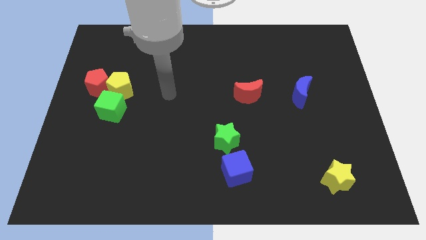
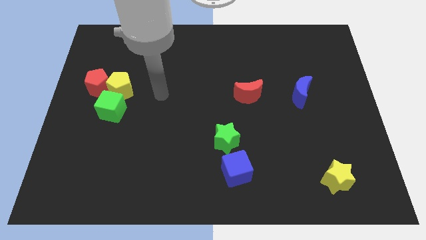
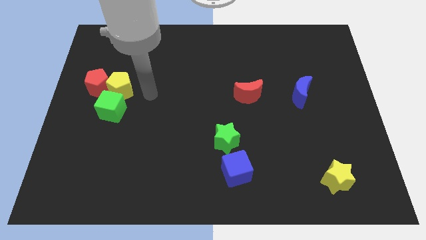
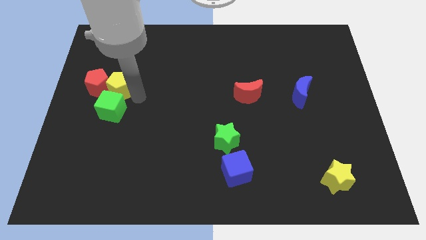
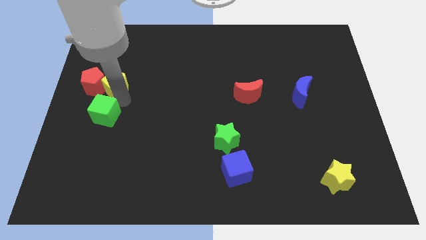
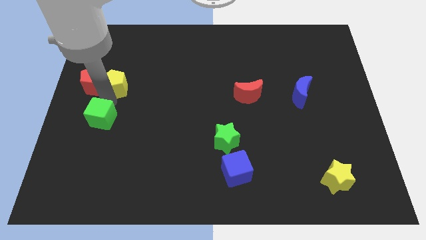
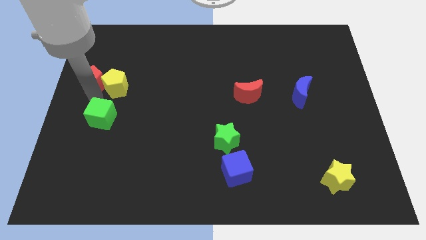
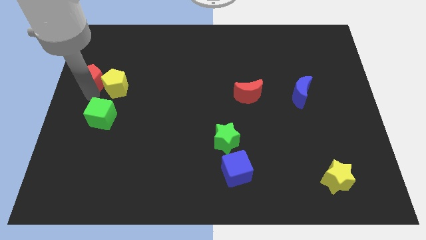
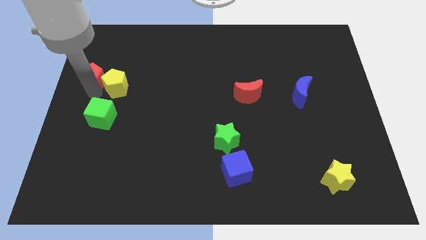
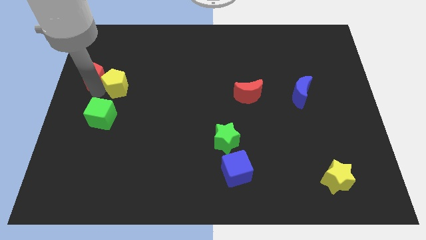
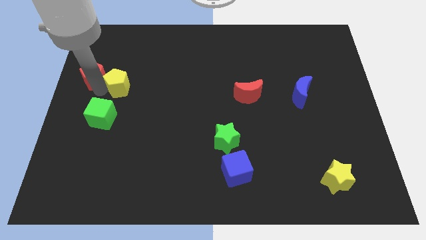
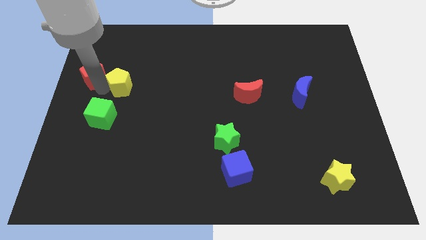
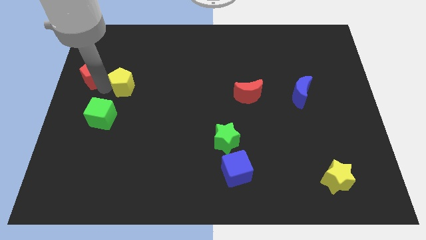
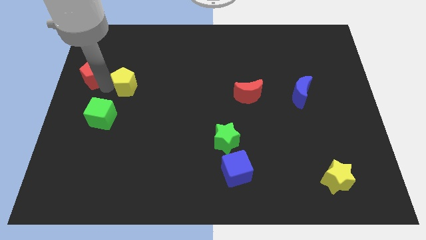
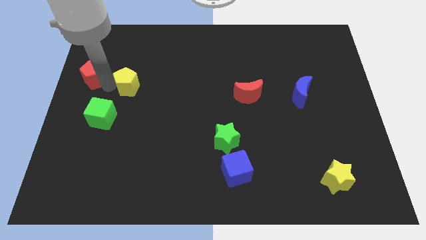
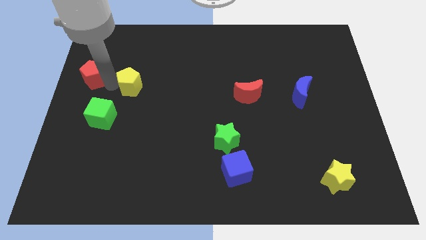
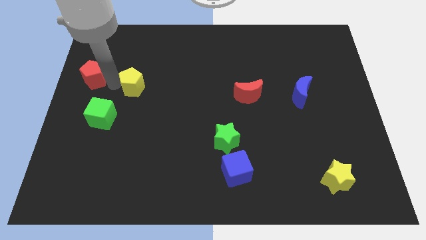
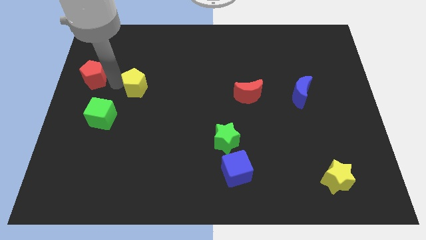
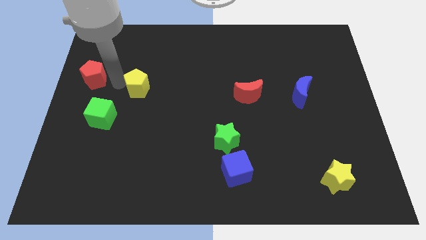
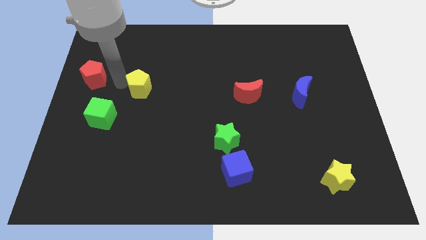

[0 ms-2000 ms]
pull the yellow pentagon apart from the red pentagon and green cube

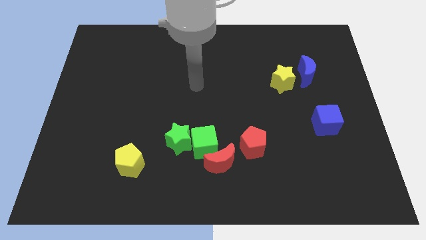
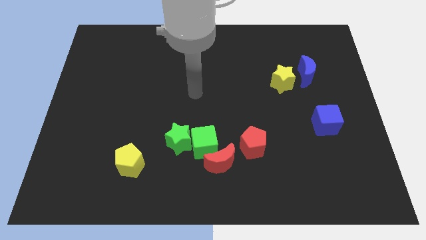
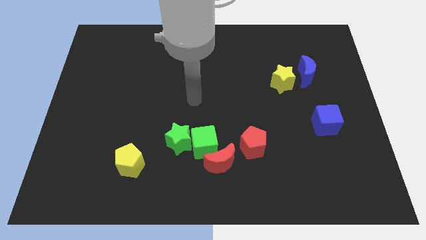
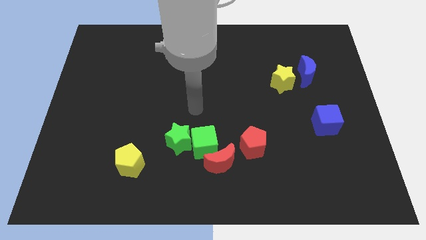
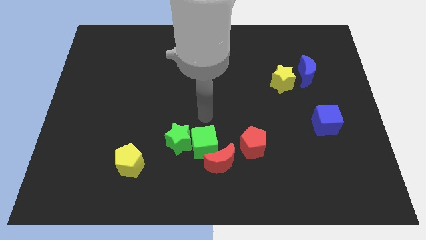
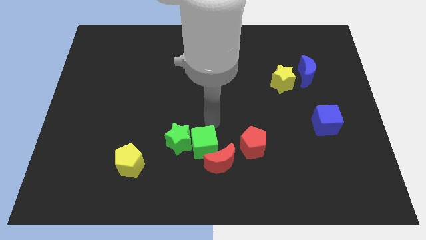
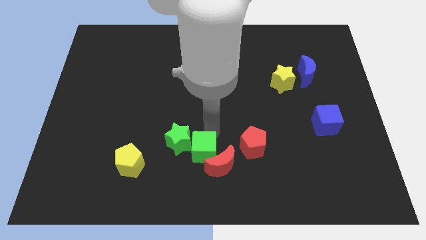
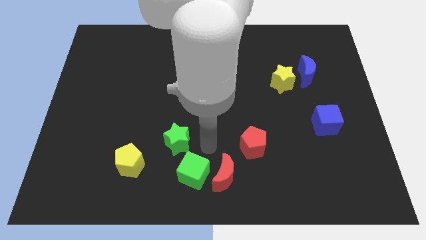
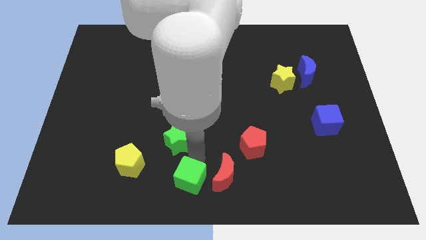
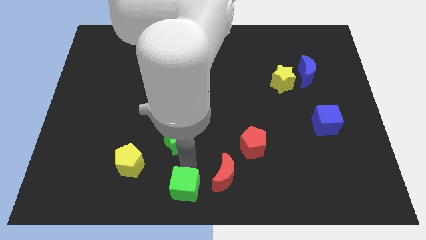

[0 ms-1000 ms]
separate the green star from the green cube

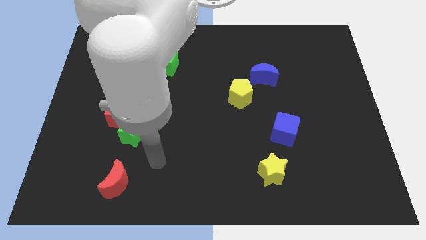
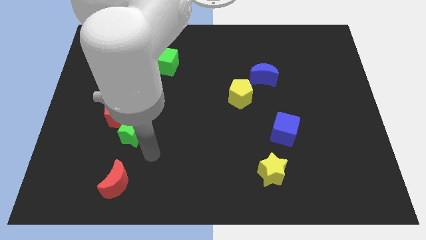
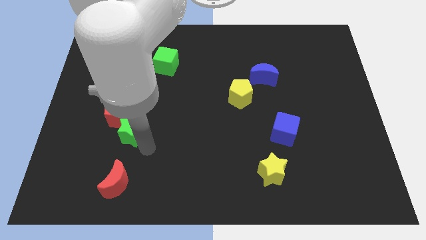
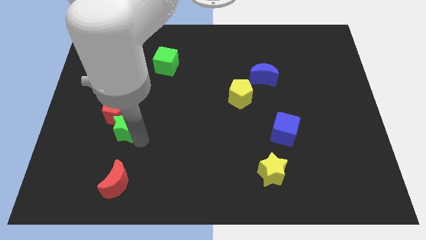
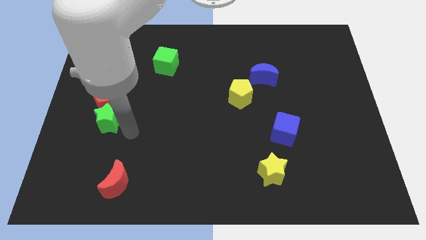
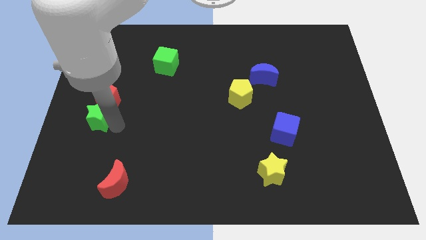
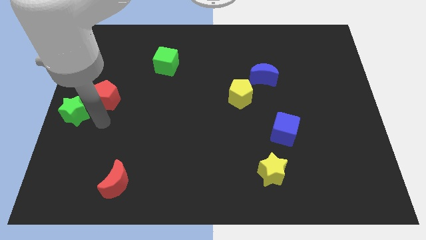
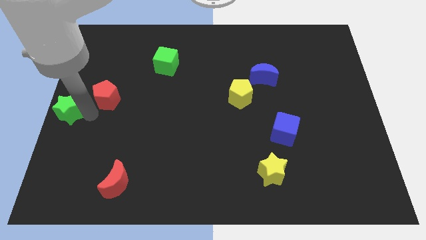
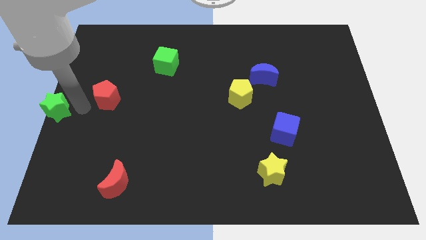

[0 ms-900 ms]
pull the red pentagon apart from the green star

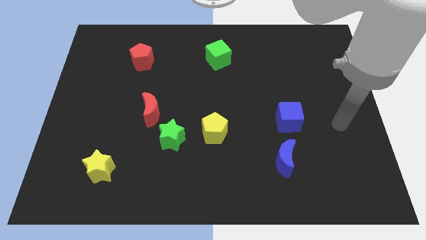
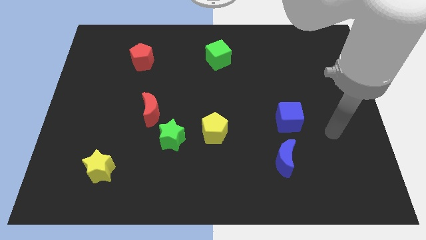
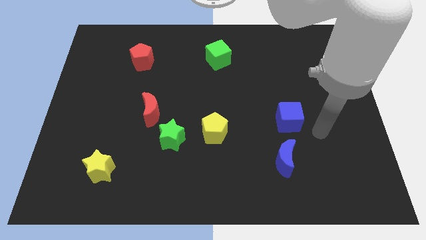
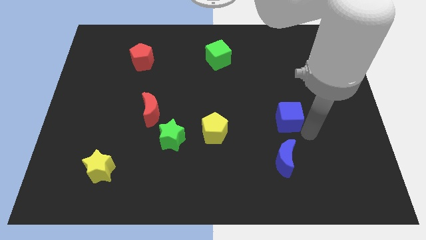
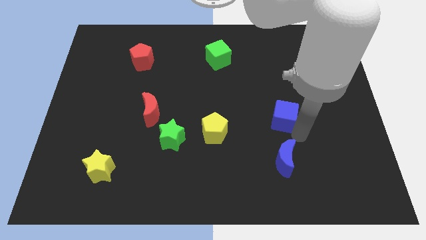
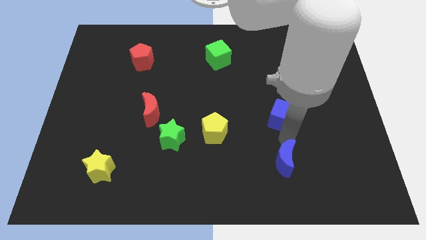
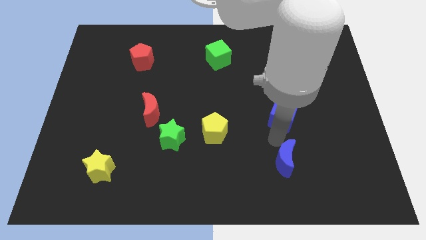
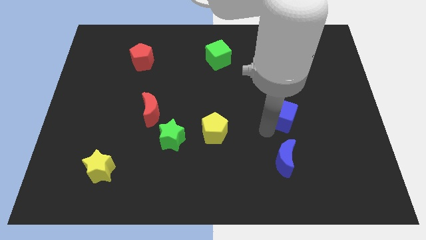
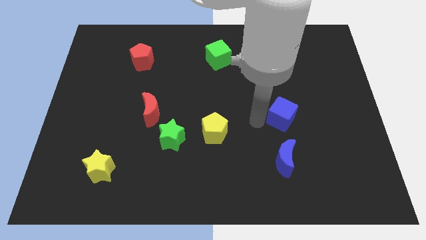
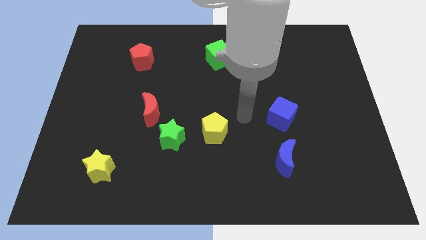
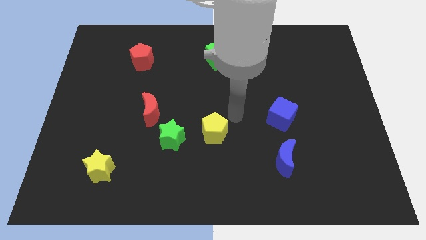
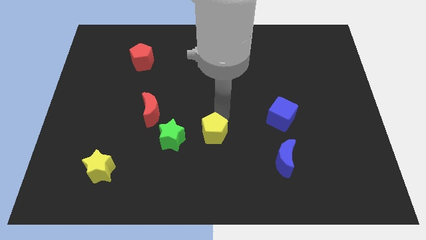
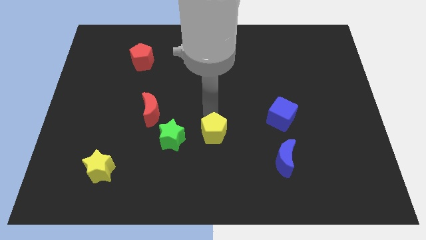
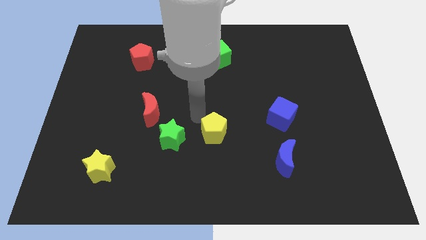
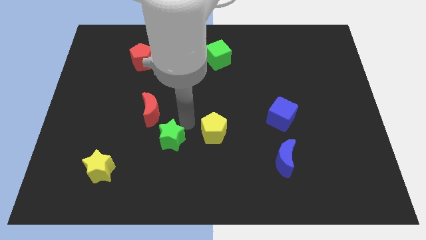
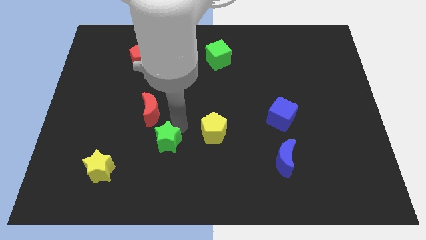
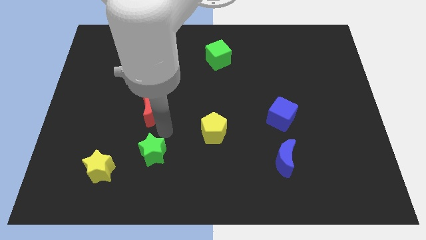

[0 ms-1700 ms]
move the red moon away from the green star

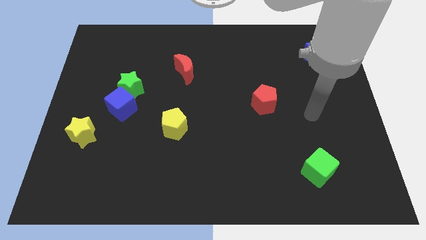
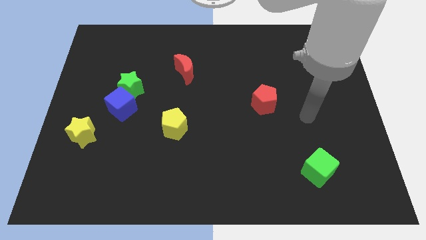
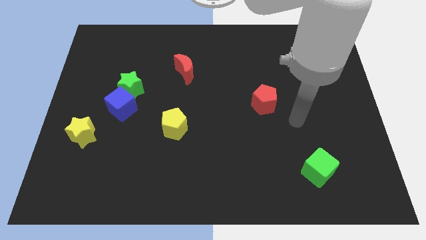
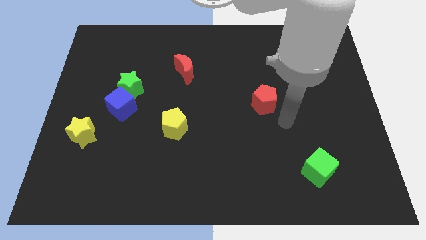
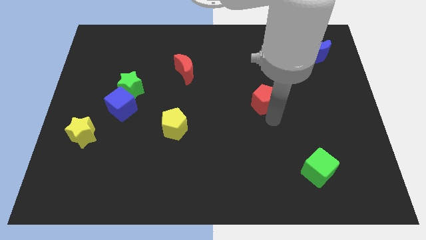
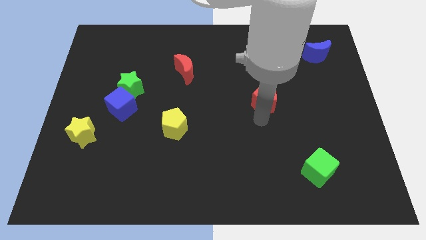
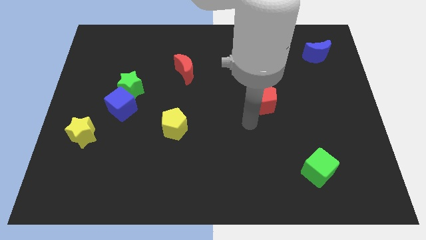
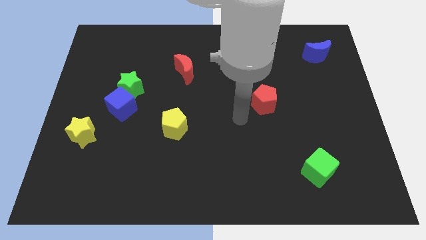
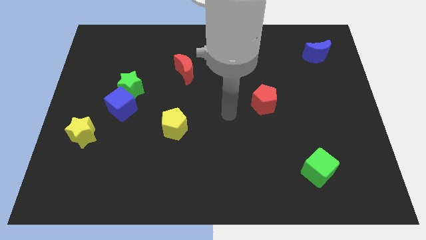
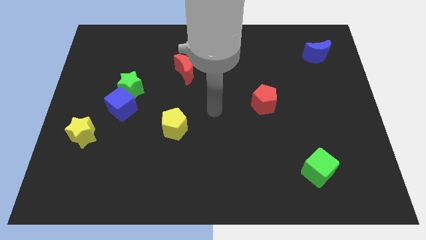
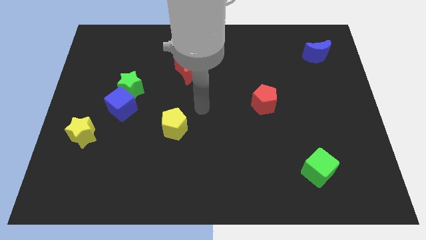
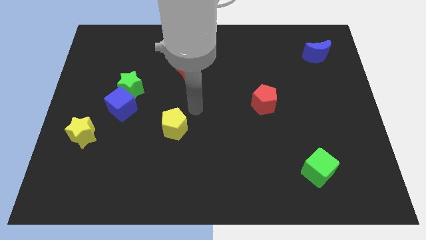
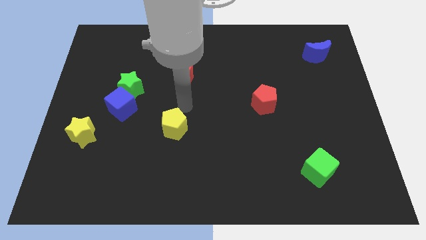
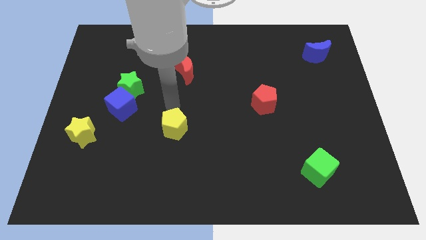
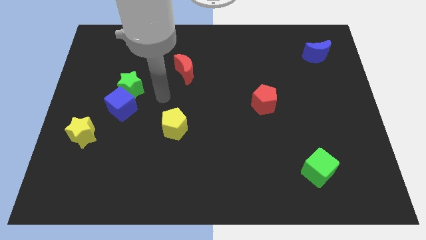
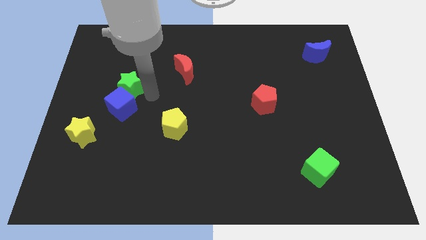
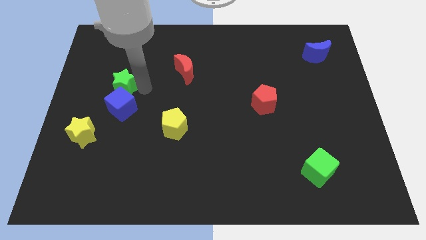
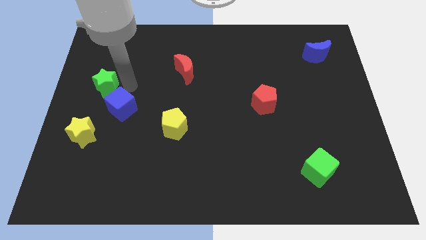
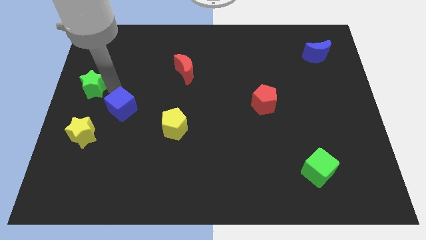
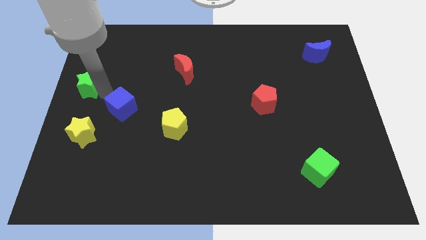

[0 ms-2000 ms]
pull the blue cube apart from the green star

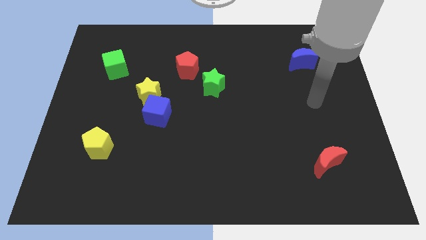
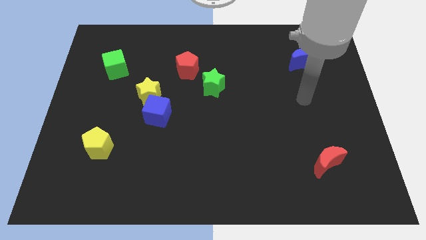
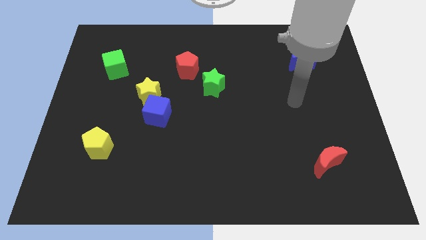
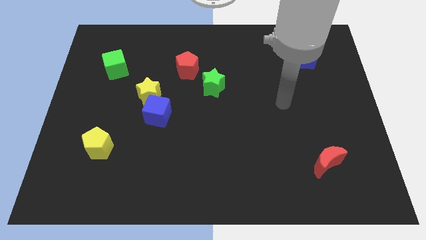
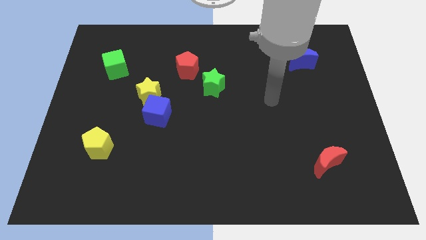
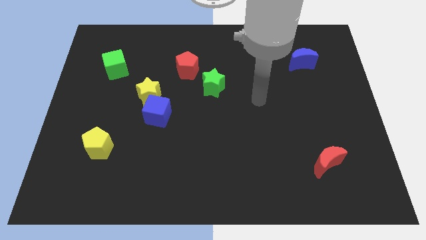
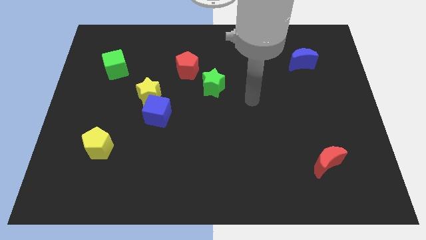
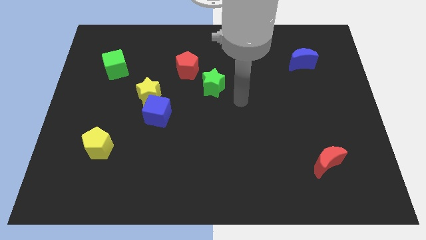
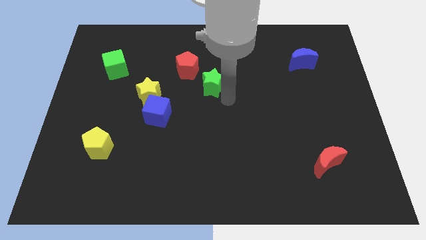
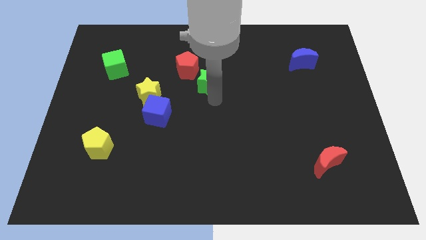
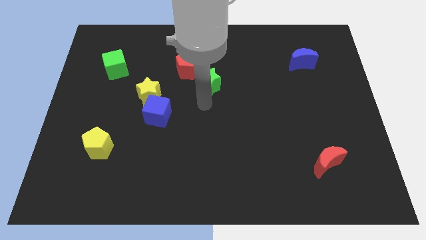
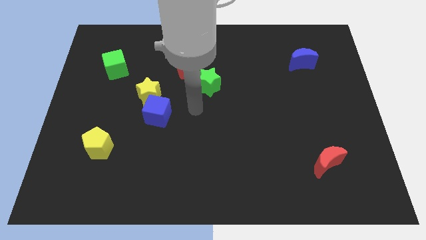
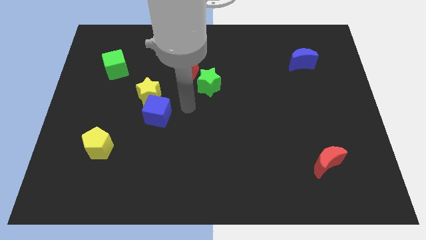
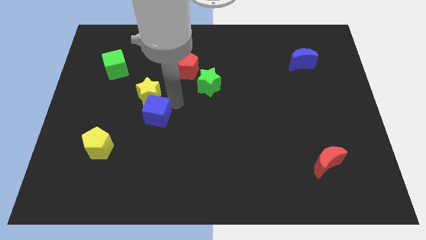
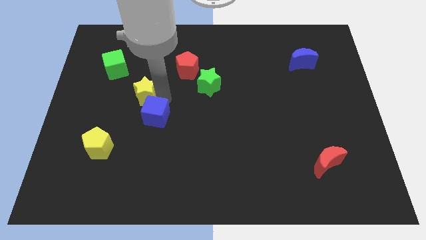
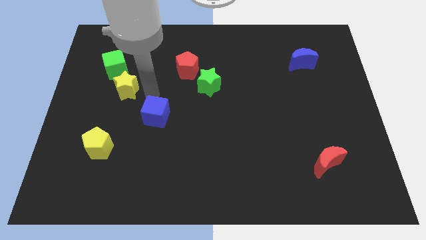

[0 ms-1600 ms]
move the blue cube away from the yellow star
